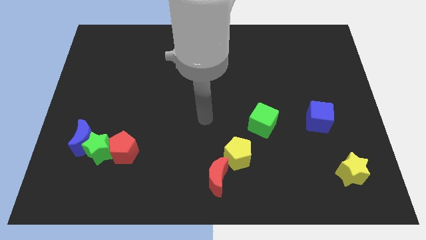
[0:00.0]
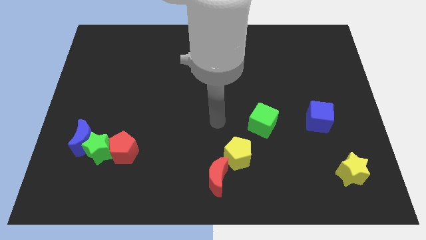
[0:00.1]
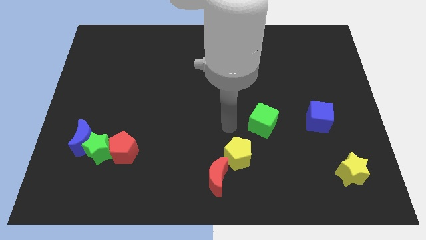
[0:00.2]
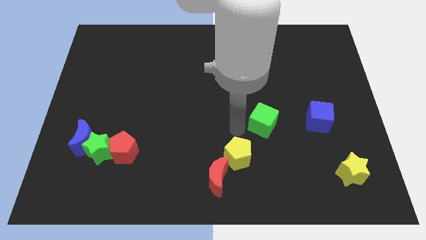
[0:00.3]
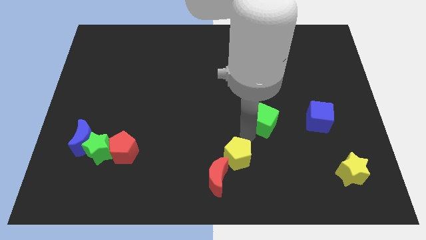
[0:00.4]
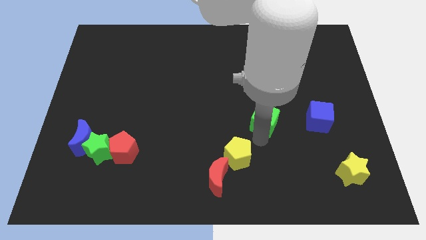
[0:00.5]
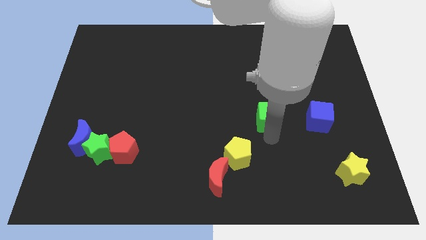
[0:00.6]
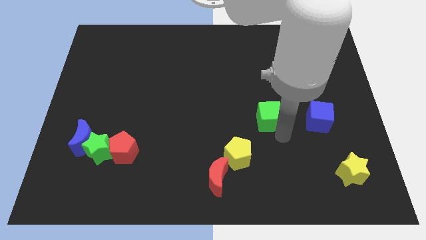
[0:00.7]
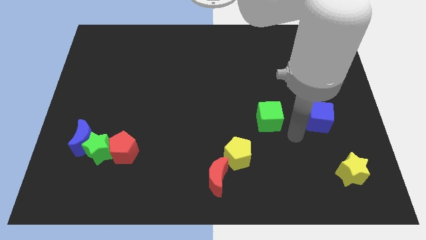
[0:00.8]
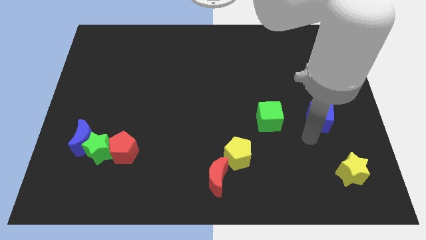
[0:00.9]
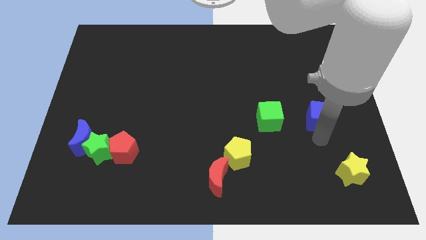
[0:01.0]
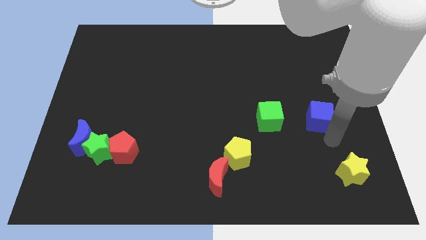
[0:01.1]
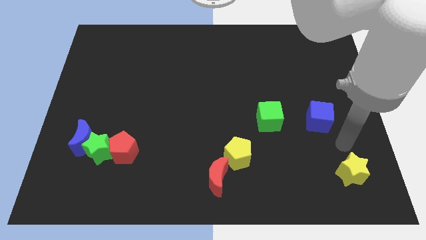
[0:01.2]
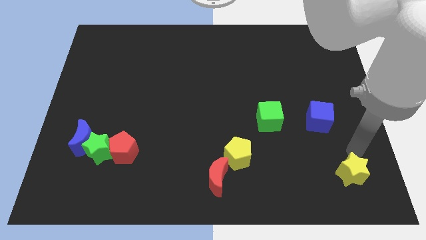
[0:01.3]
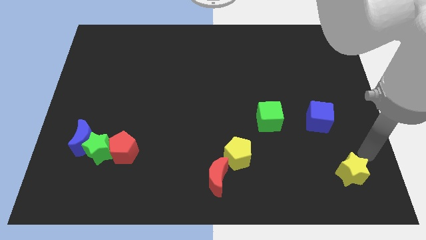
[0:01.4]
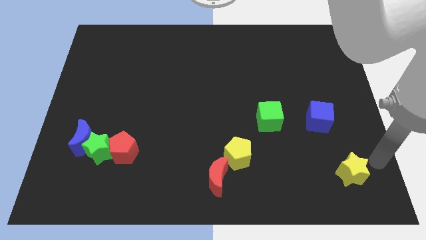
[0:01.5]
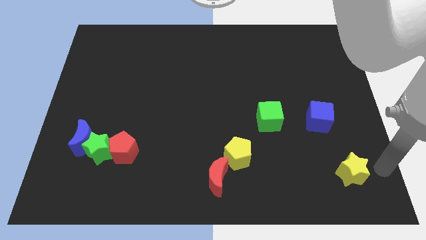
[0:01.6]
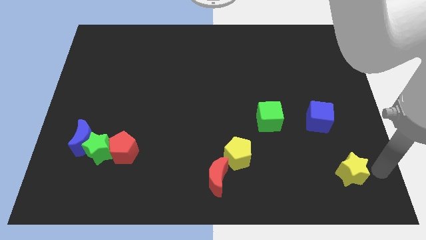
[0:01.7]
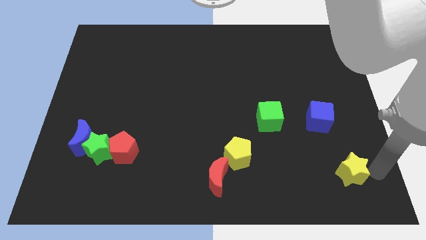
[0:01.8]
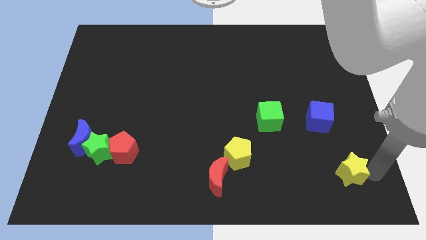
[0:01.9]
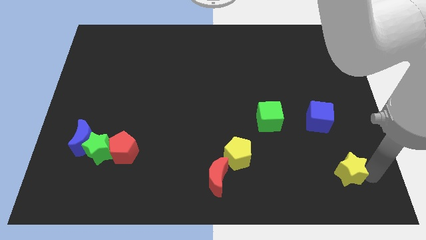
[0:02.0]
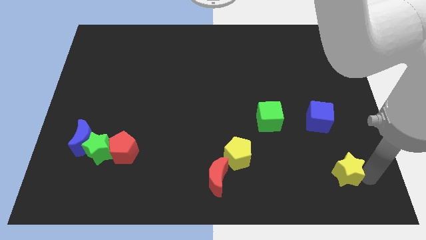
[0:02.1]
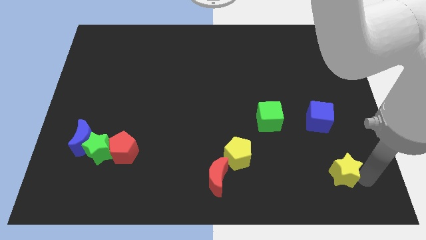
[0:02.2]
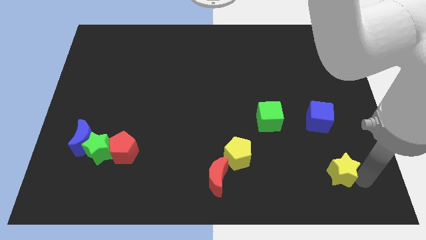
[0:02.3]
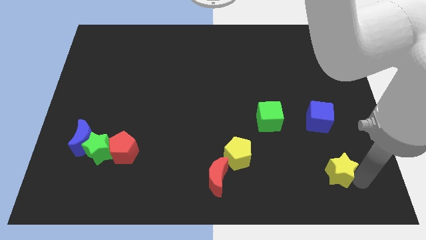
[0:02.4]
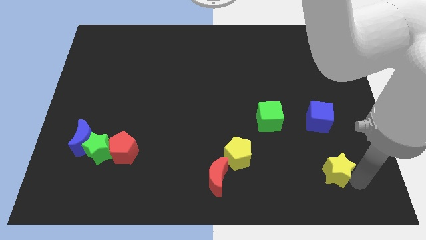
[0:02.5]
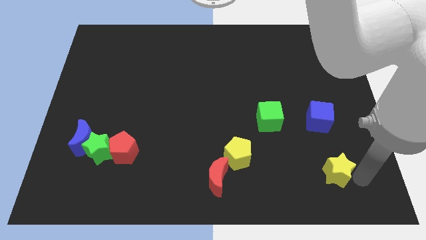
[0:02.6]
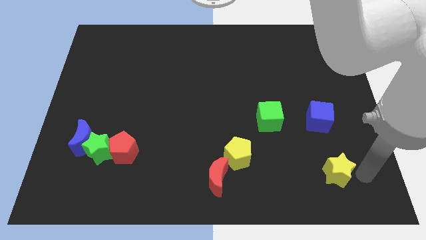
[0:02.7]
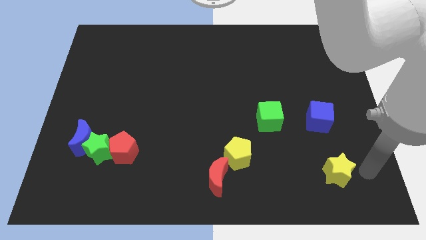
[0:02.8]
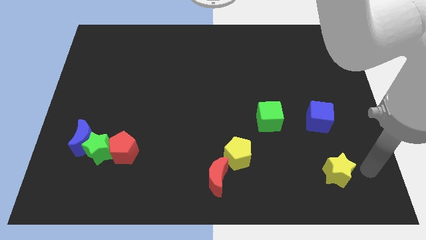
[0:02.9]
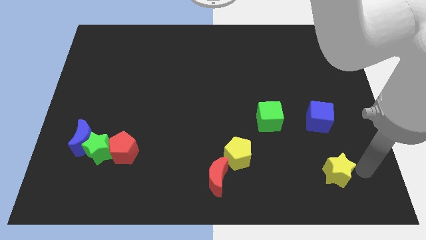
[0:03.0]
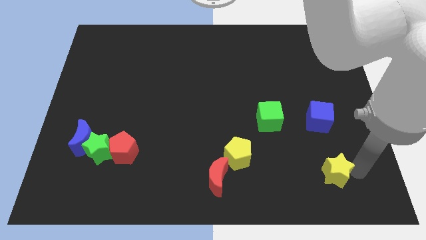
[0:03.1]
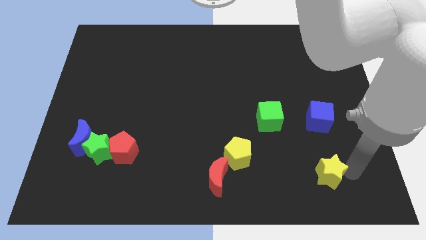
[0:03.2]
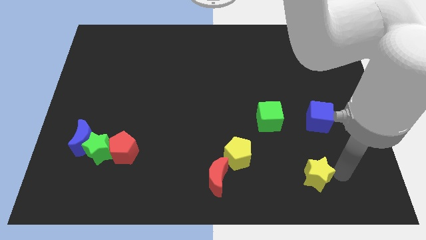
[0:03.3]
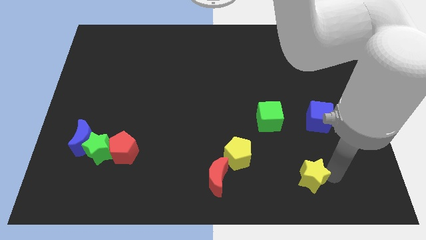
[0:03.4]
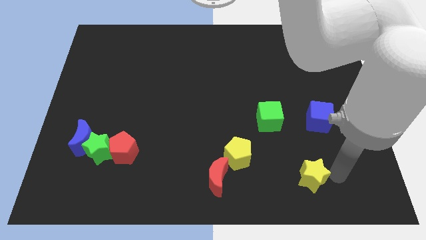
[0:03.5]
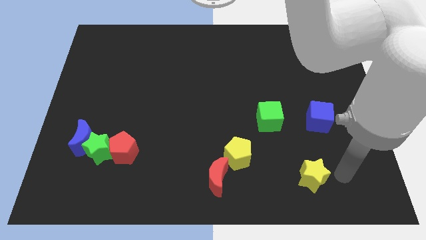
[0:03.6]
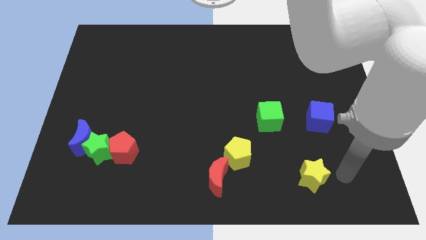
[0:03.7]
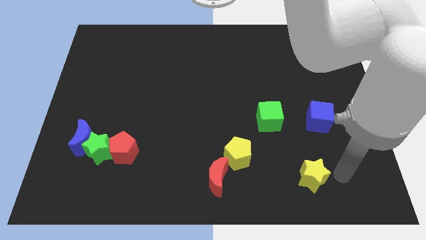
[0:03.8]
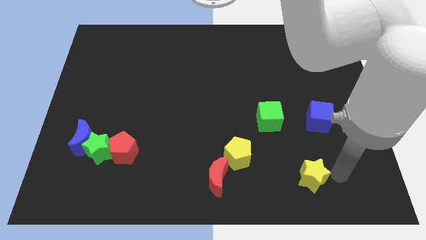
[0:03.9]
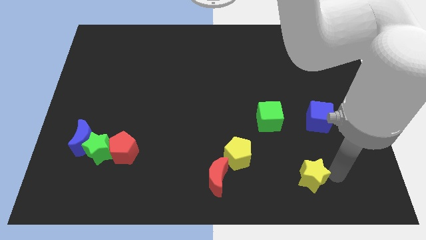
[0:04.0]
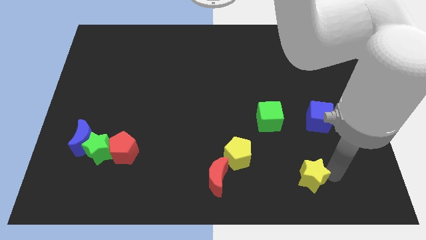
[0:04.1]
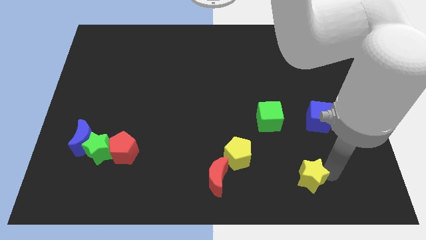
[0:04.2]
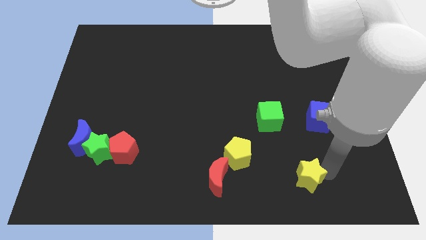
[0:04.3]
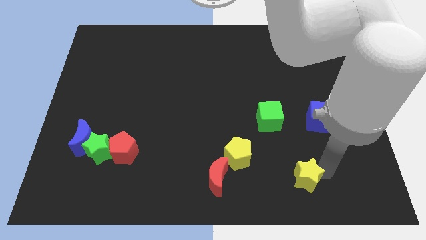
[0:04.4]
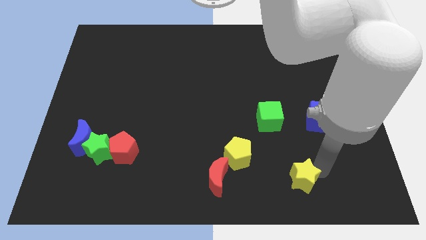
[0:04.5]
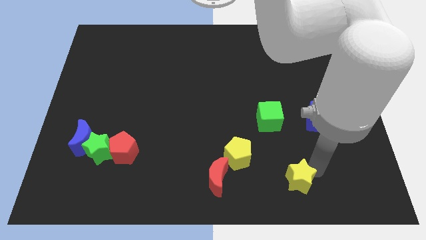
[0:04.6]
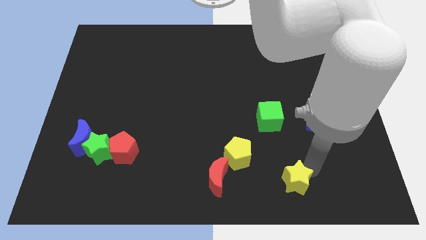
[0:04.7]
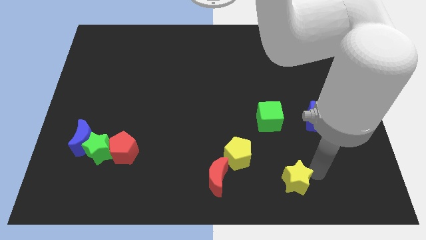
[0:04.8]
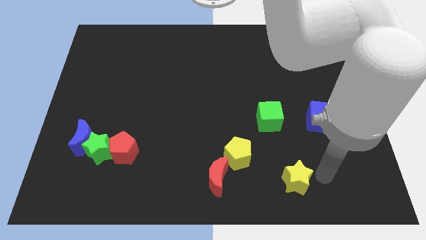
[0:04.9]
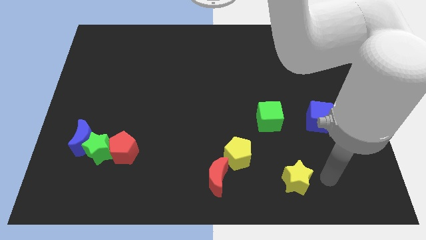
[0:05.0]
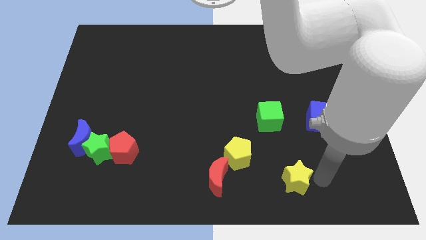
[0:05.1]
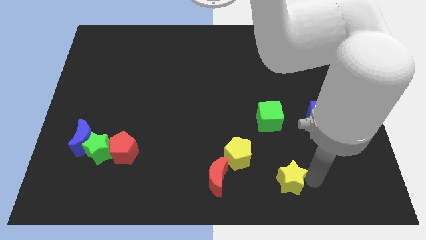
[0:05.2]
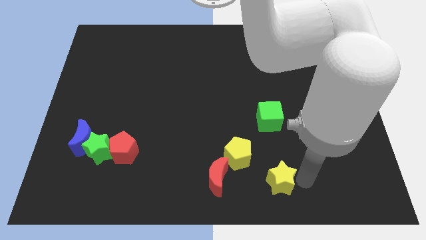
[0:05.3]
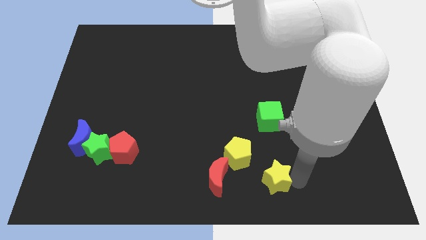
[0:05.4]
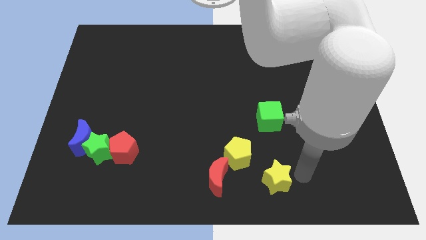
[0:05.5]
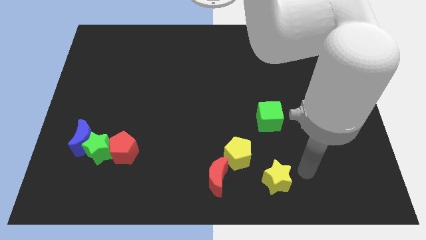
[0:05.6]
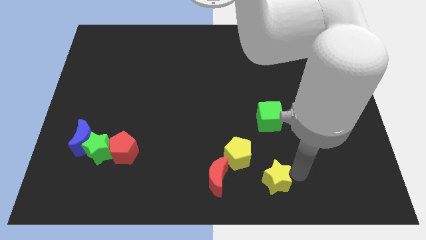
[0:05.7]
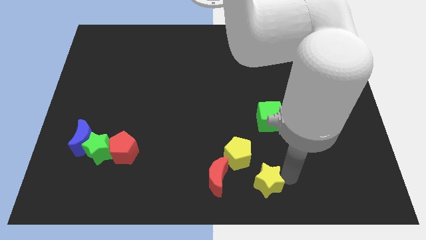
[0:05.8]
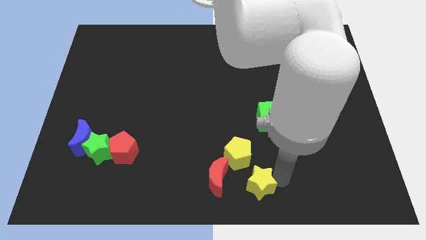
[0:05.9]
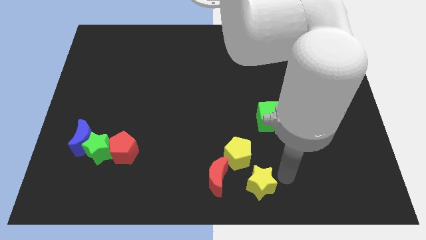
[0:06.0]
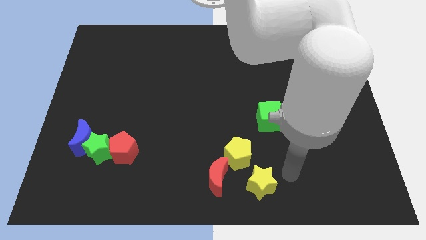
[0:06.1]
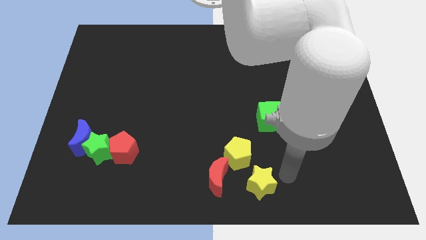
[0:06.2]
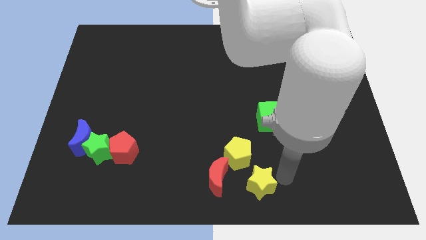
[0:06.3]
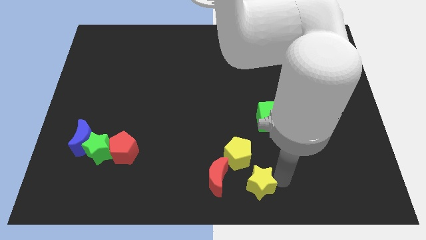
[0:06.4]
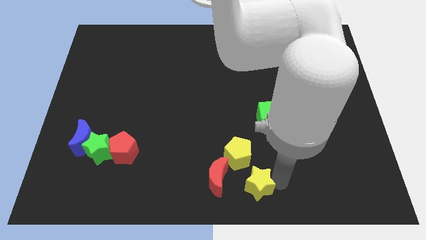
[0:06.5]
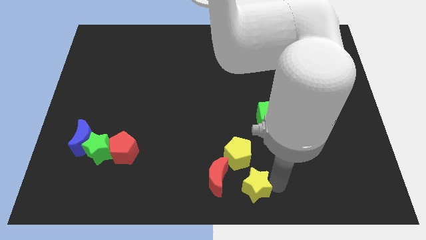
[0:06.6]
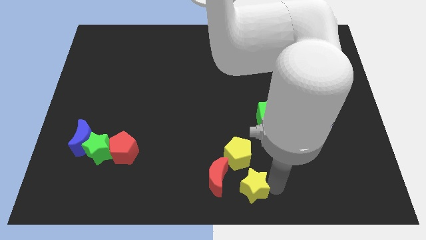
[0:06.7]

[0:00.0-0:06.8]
push the yellow star to the left

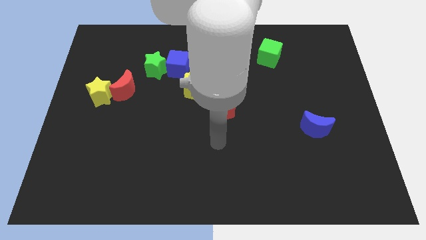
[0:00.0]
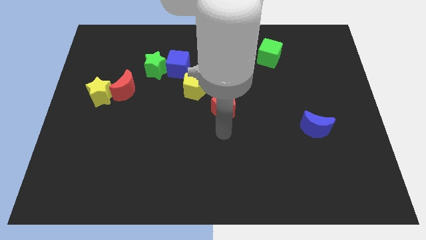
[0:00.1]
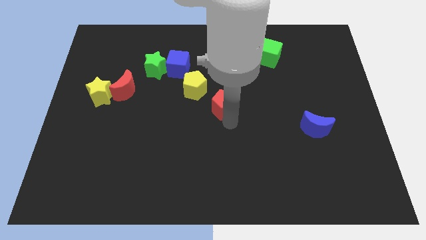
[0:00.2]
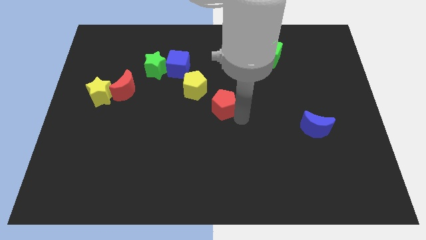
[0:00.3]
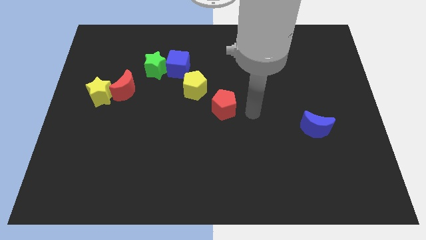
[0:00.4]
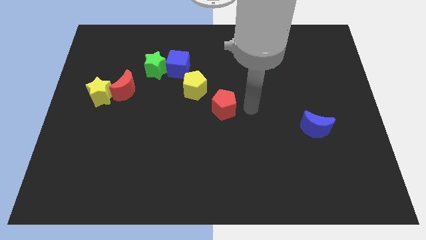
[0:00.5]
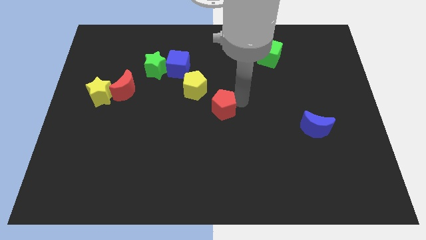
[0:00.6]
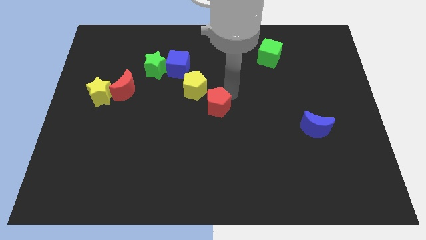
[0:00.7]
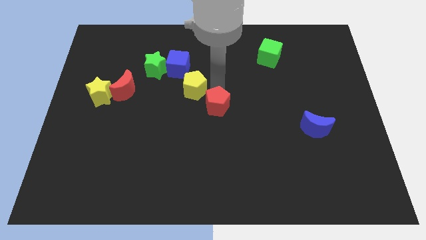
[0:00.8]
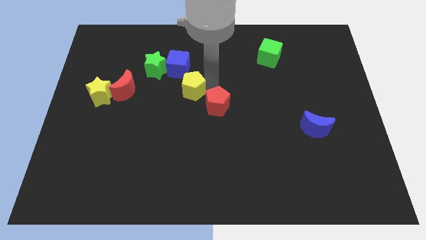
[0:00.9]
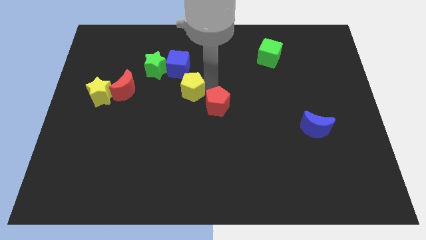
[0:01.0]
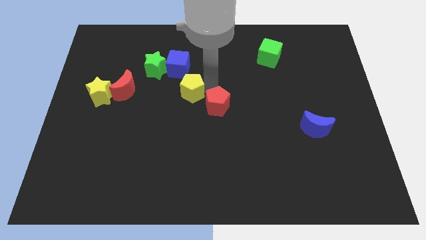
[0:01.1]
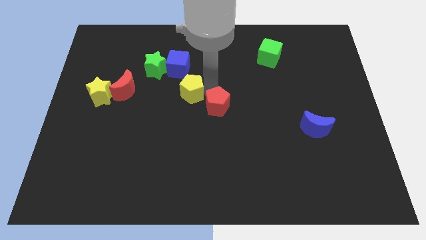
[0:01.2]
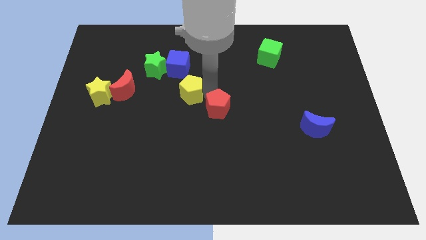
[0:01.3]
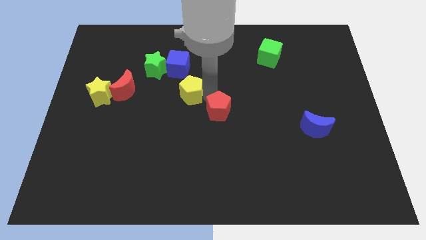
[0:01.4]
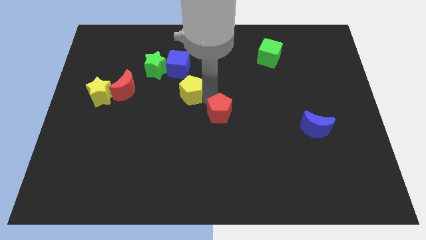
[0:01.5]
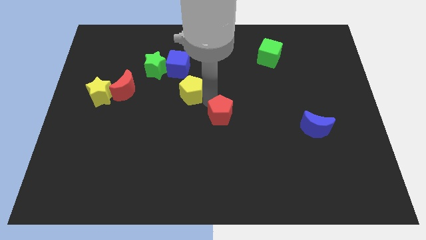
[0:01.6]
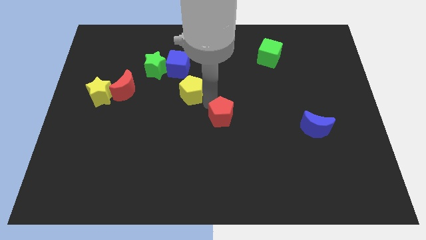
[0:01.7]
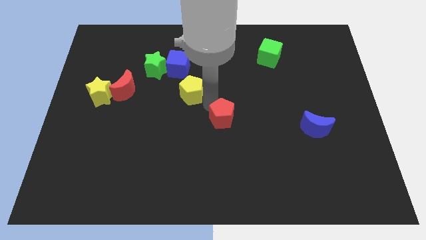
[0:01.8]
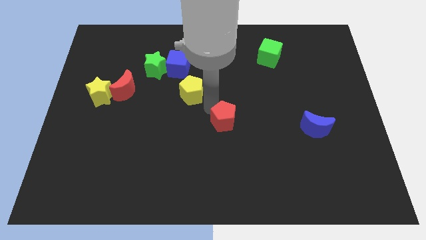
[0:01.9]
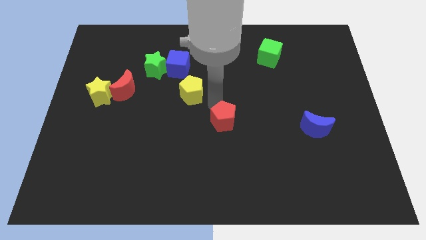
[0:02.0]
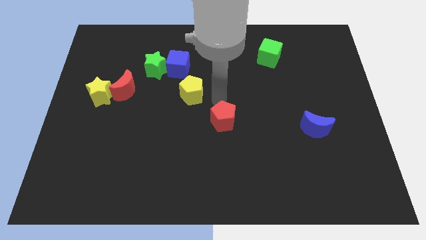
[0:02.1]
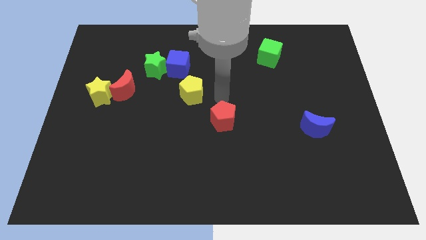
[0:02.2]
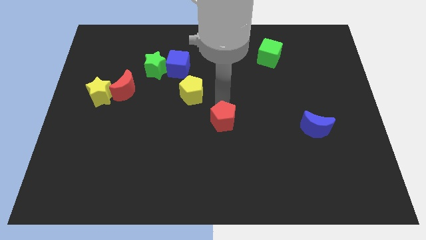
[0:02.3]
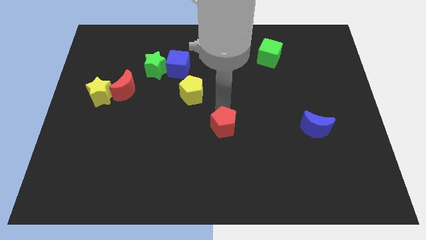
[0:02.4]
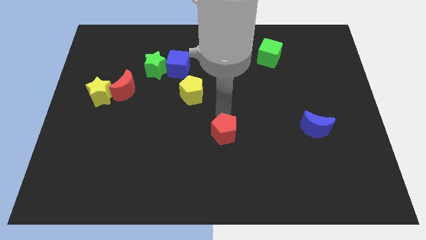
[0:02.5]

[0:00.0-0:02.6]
move the red pentagon down somewhat
